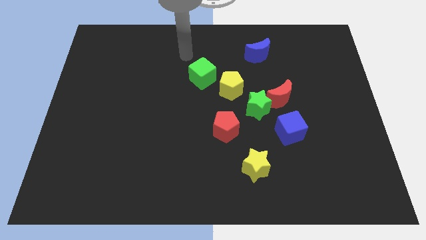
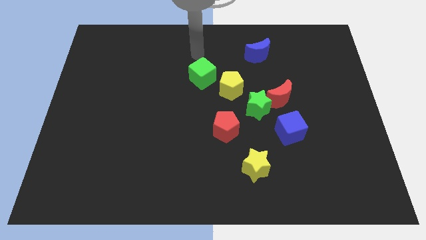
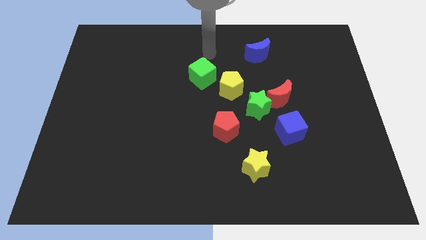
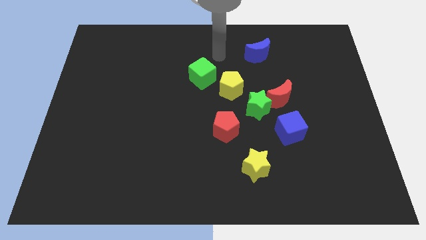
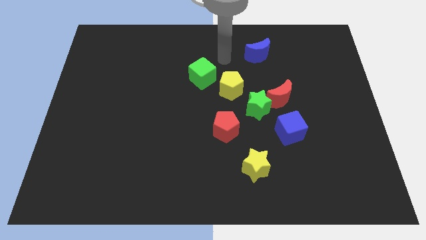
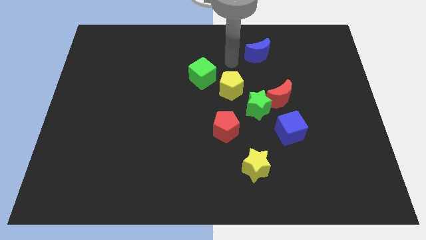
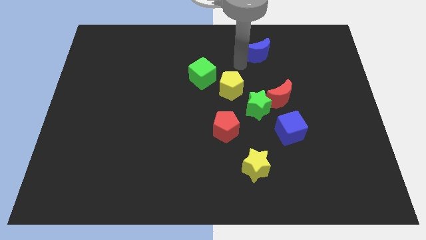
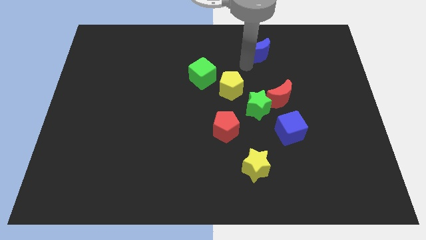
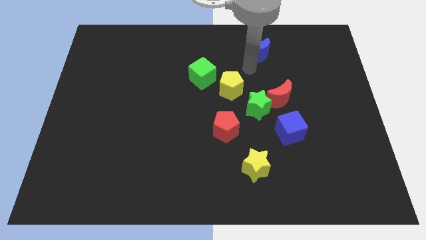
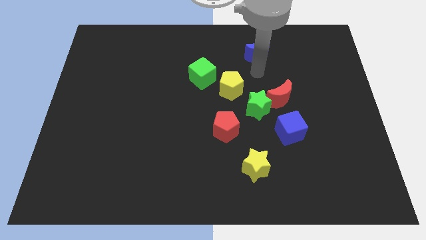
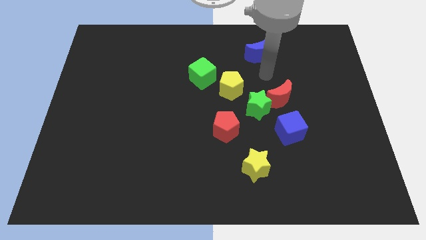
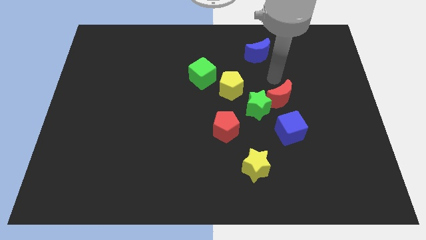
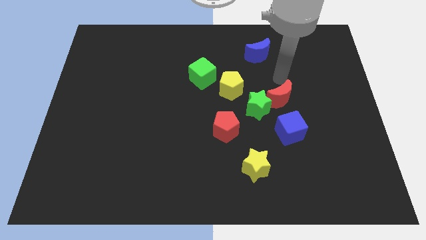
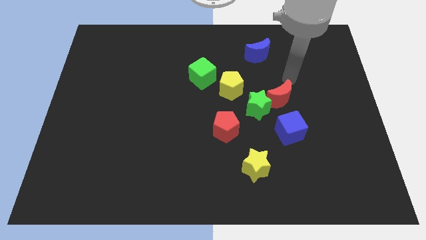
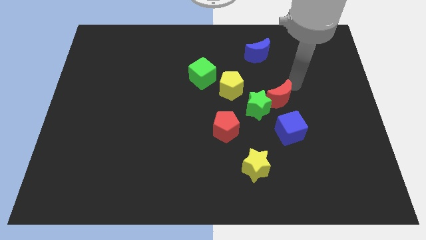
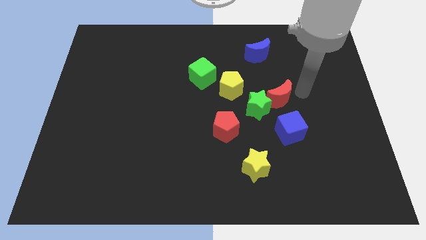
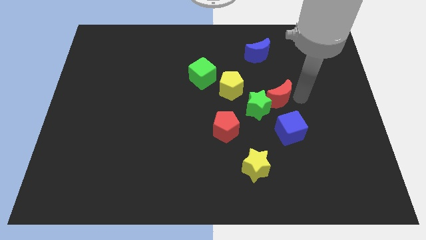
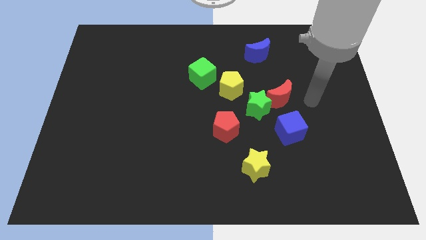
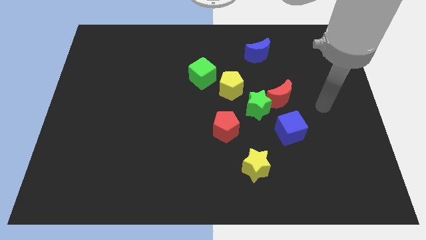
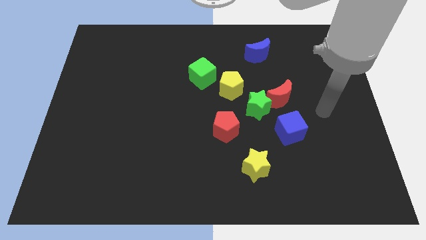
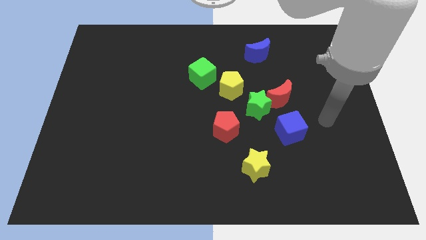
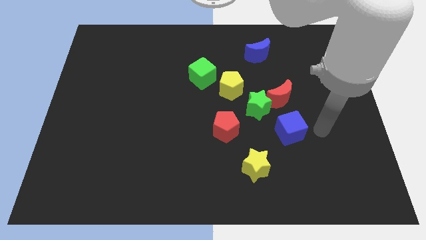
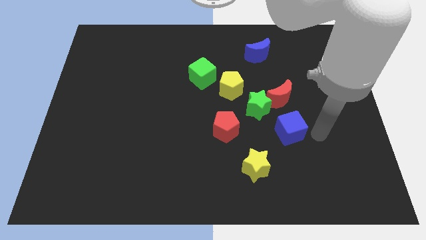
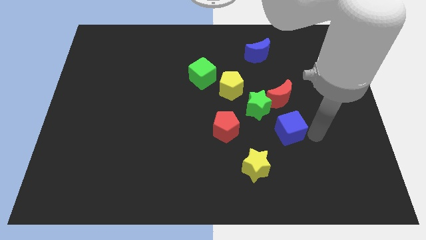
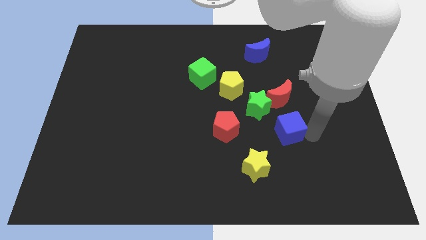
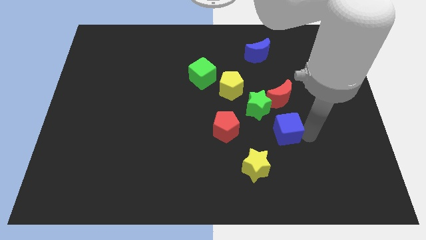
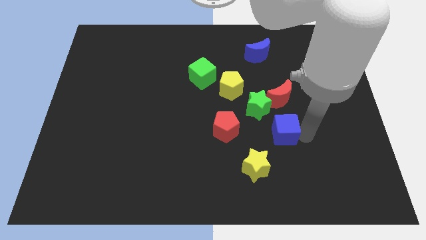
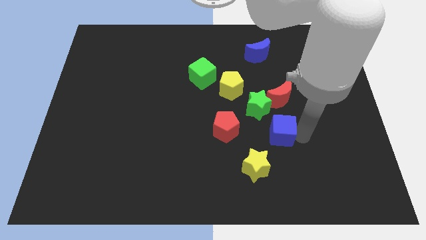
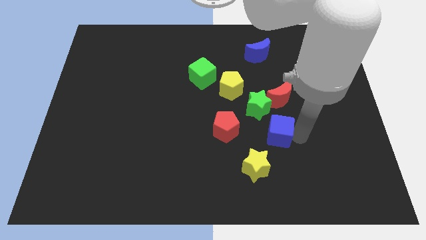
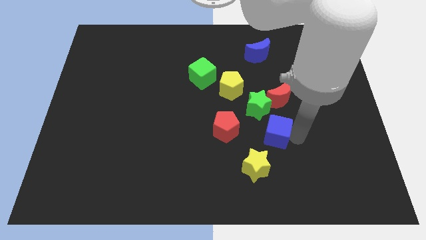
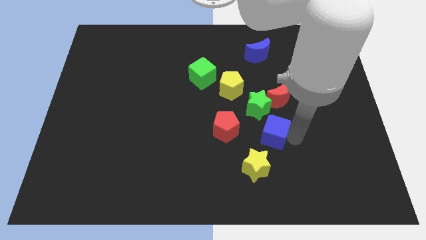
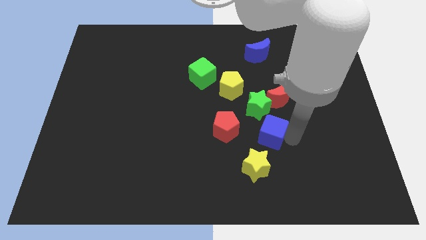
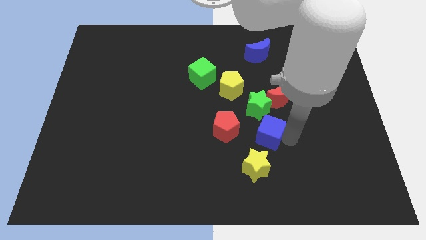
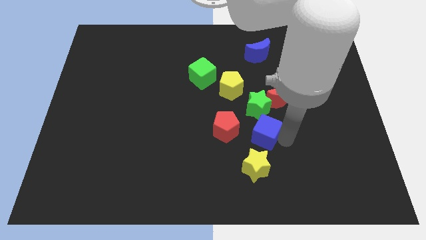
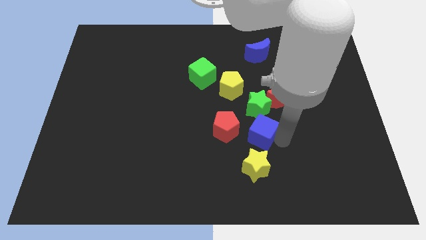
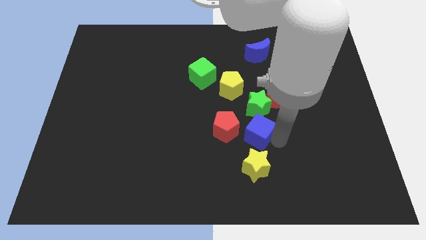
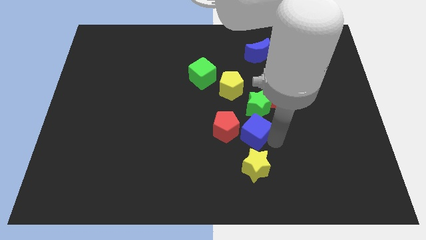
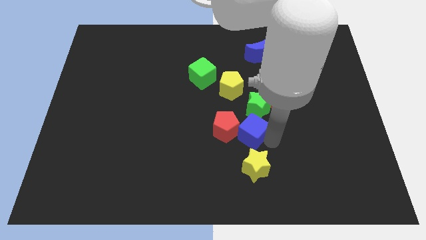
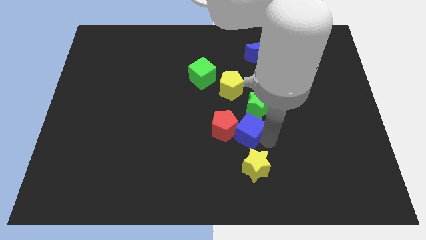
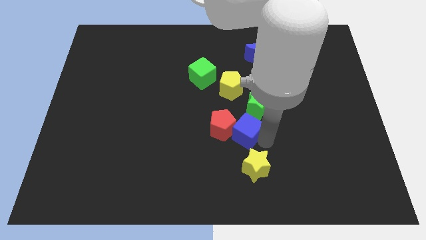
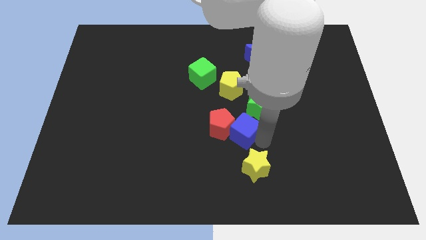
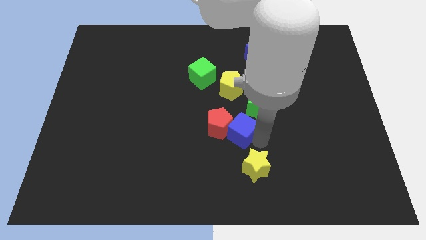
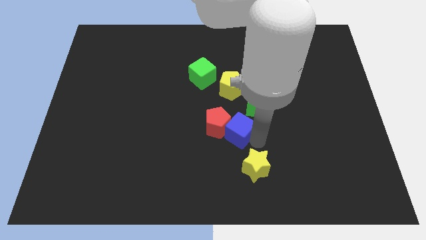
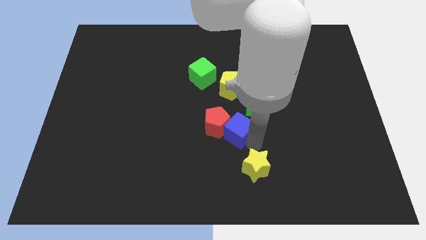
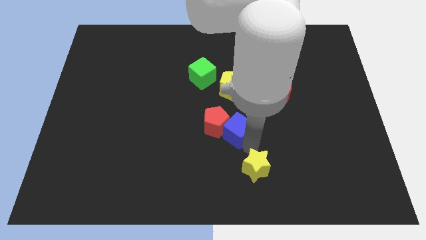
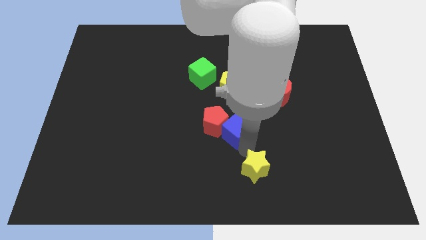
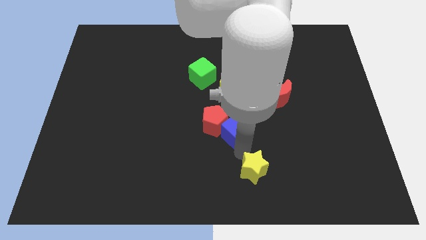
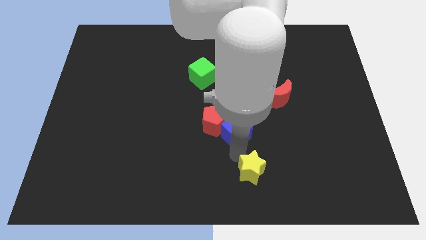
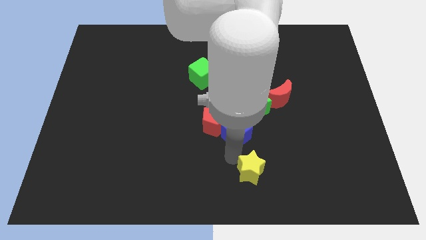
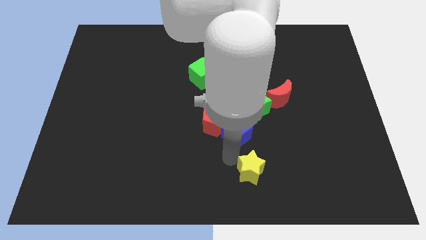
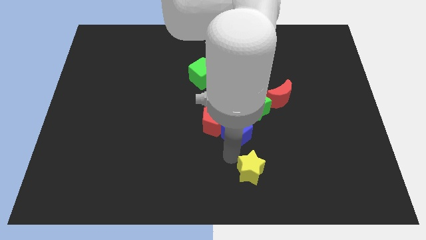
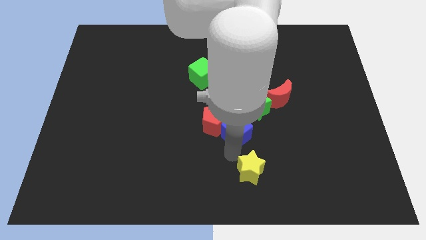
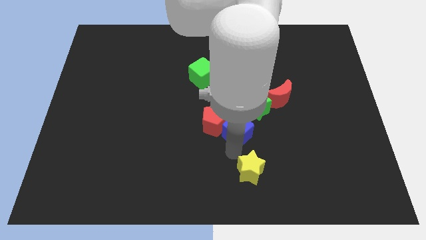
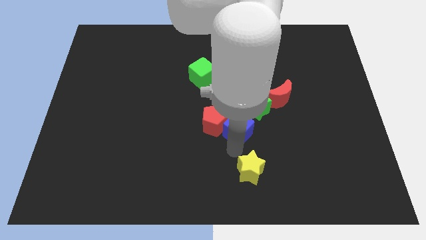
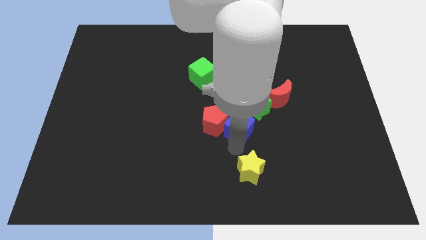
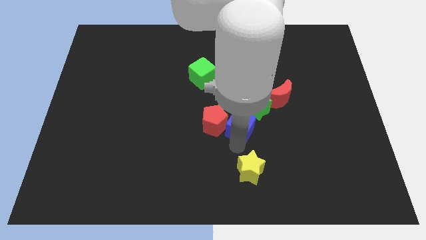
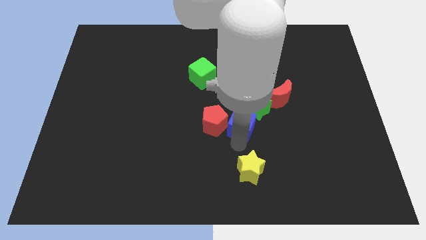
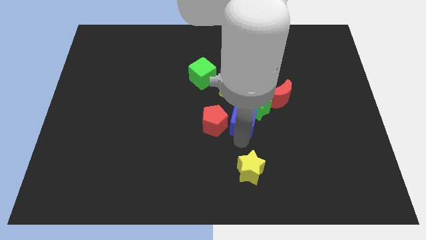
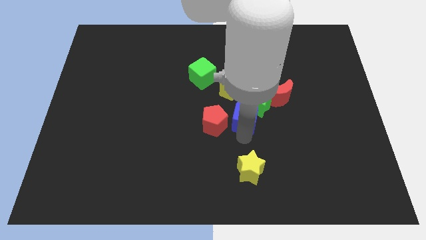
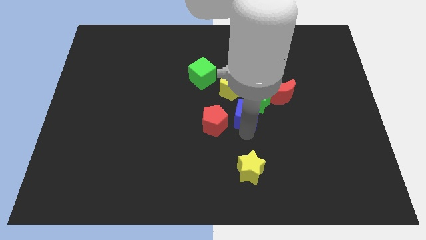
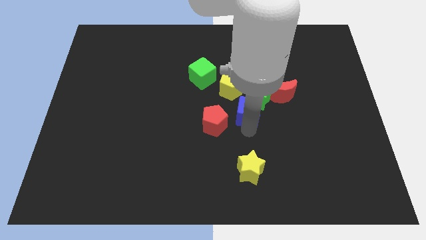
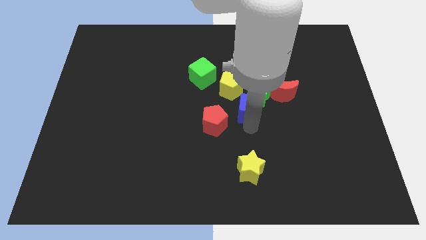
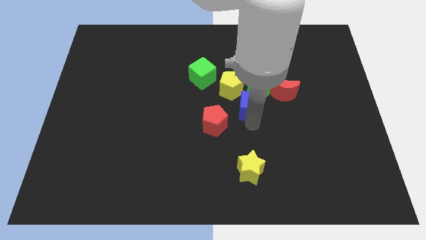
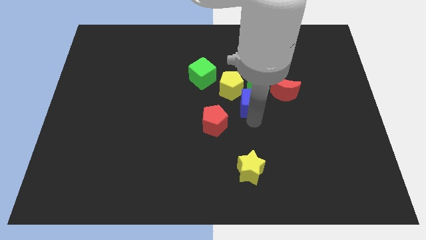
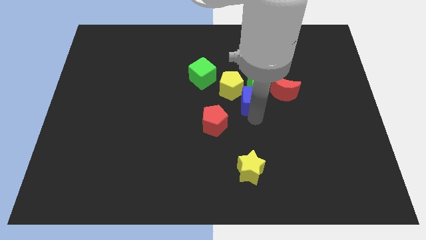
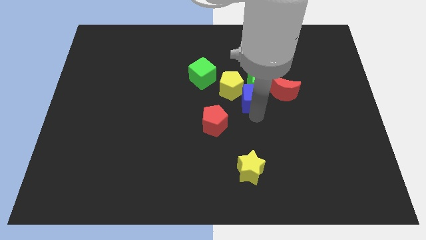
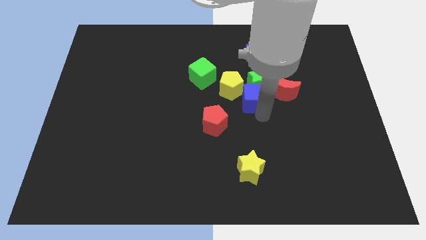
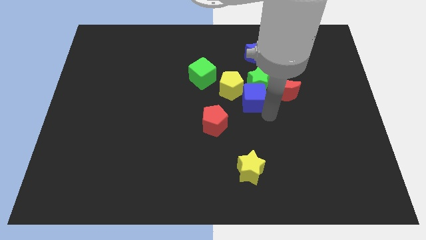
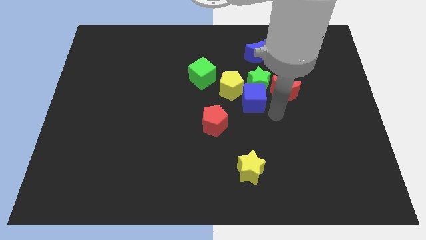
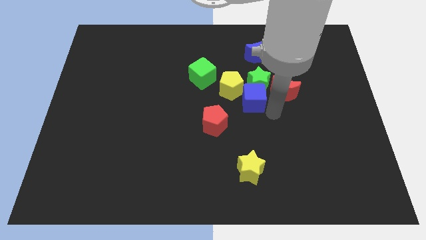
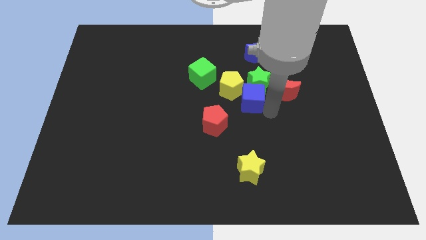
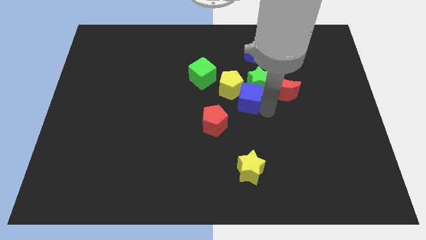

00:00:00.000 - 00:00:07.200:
push the blue cube next to the yellow pentagon

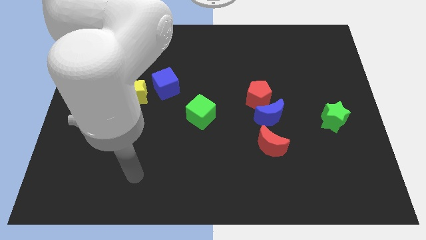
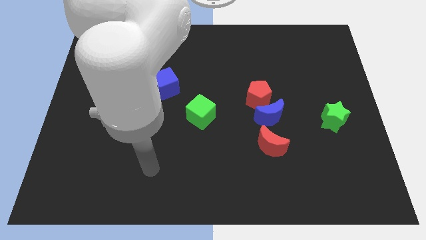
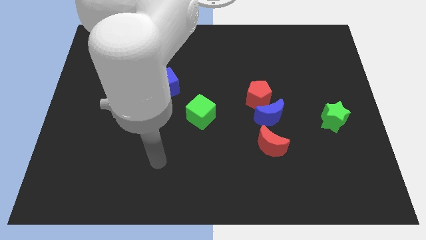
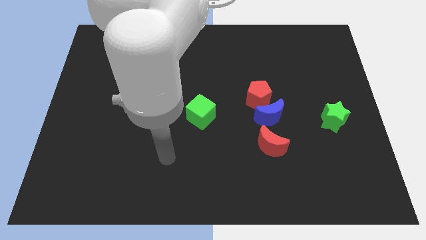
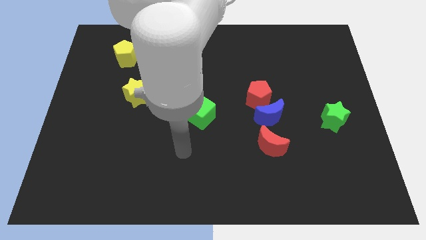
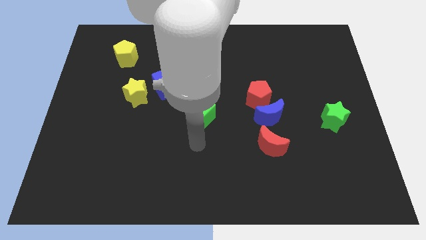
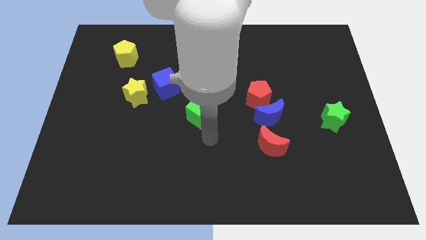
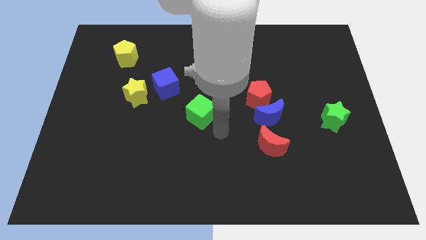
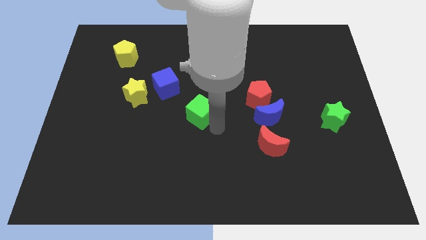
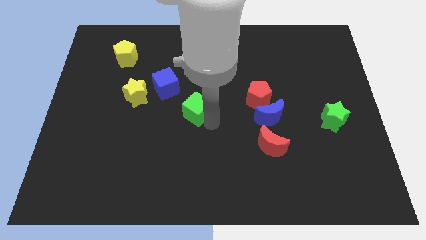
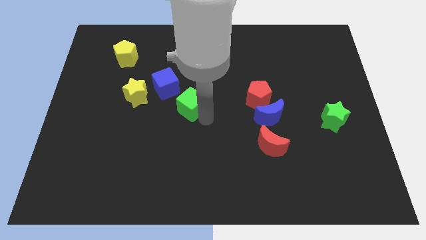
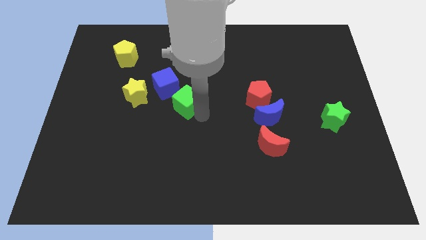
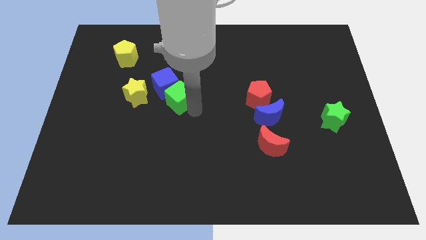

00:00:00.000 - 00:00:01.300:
put the green cube next to the blue cube
